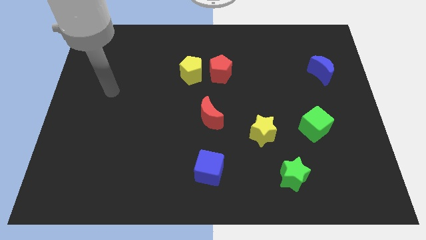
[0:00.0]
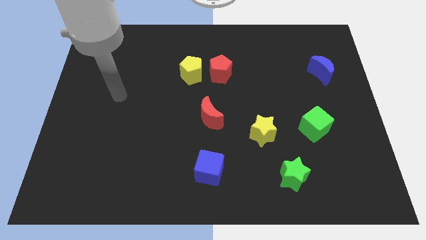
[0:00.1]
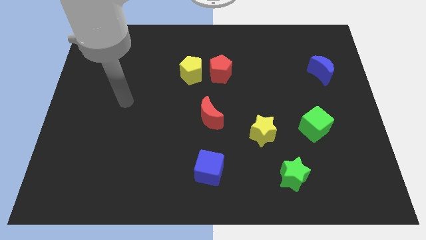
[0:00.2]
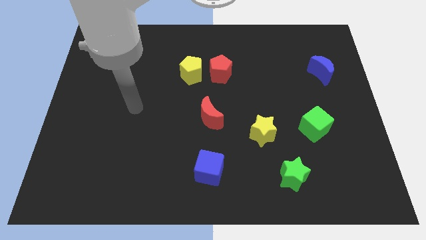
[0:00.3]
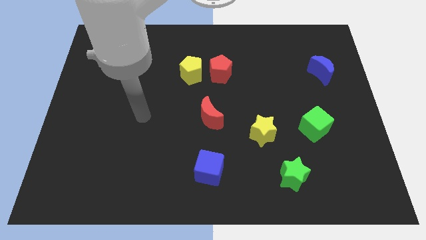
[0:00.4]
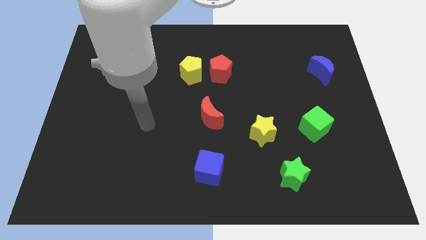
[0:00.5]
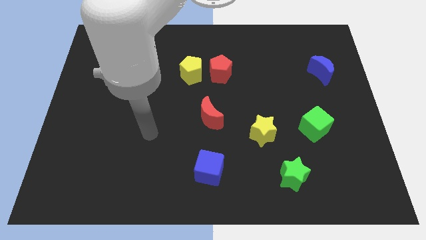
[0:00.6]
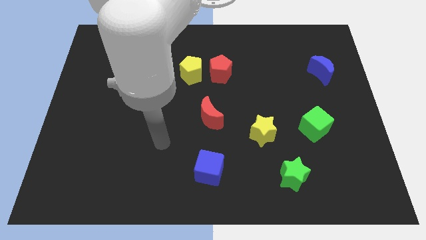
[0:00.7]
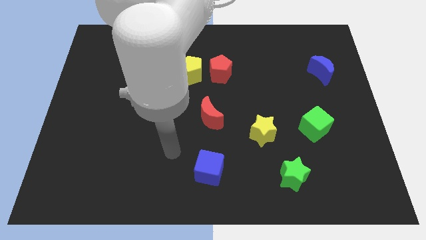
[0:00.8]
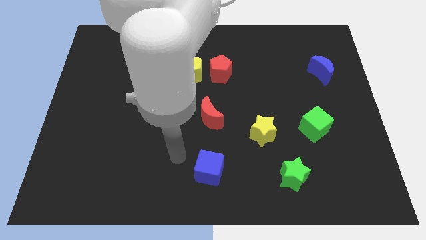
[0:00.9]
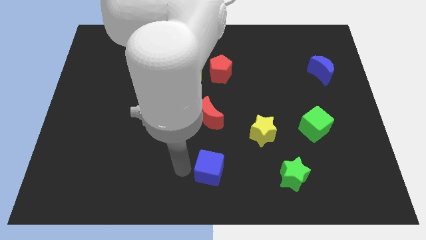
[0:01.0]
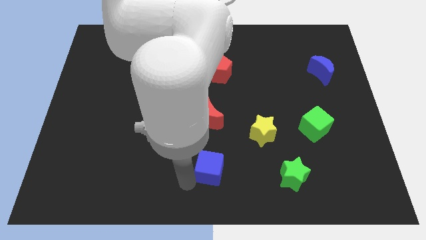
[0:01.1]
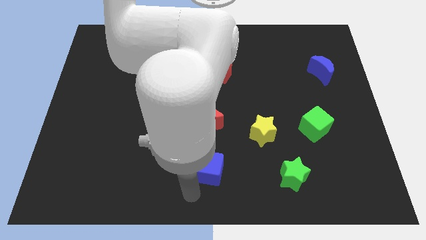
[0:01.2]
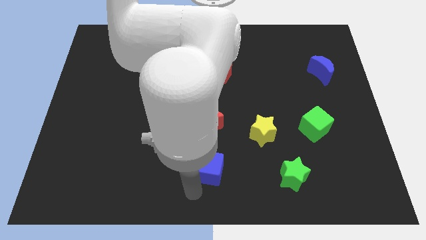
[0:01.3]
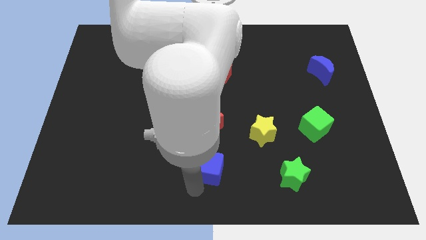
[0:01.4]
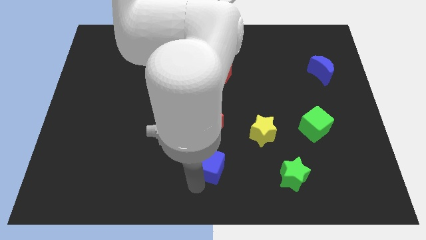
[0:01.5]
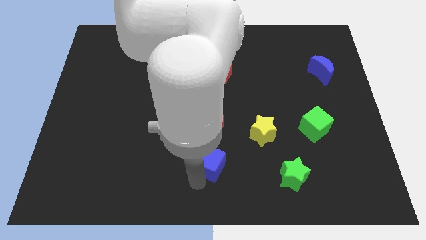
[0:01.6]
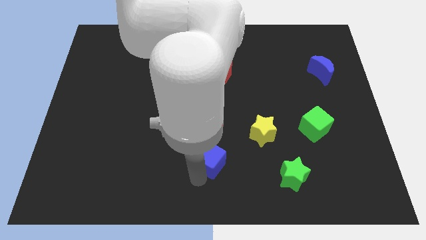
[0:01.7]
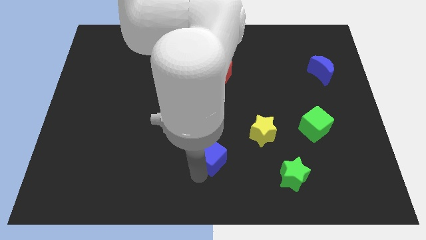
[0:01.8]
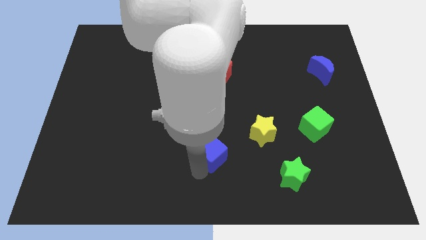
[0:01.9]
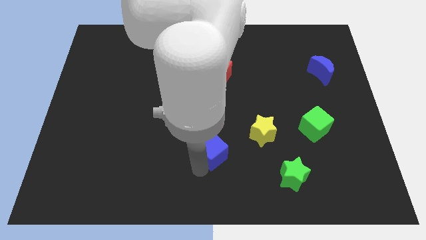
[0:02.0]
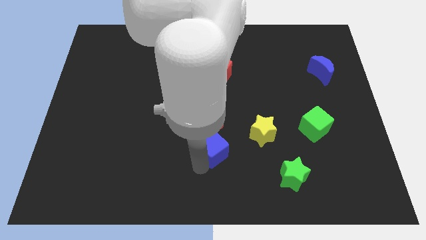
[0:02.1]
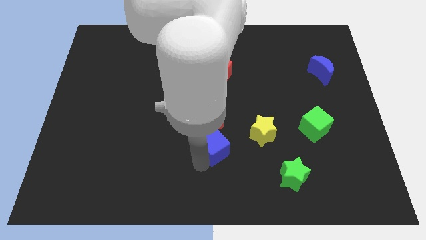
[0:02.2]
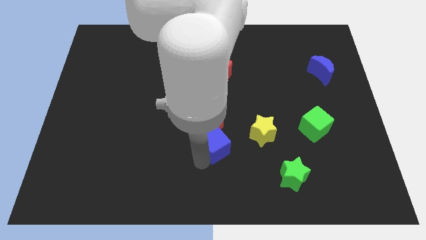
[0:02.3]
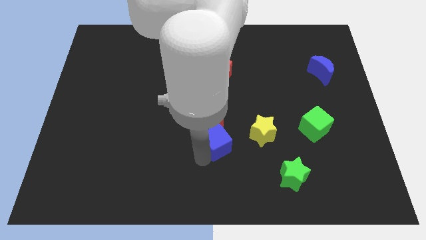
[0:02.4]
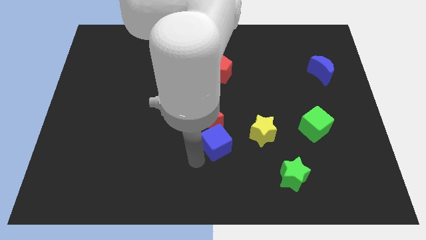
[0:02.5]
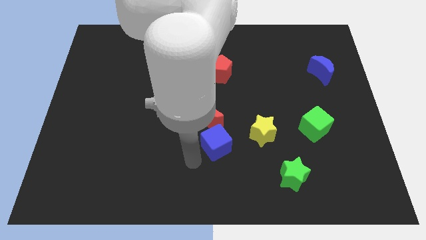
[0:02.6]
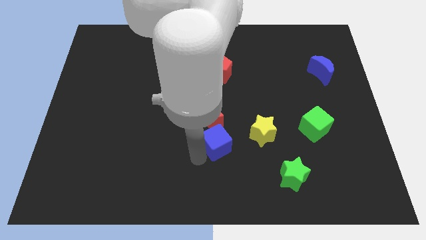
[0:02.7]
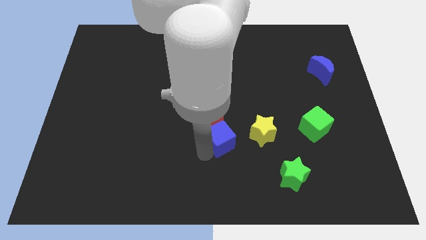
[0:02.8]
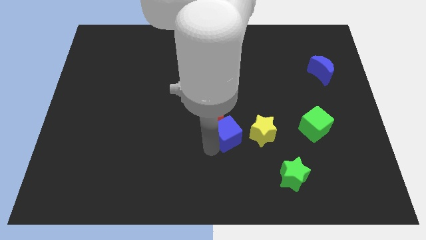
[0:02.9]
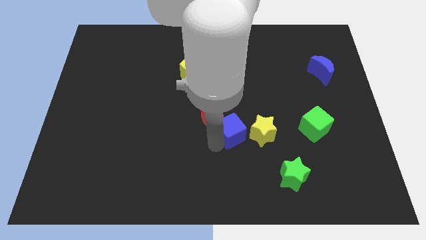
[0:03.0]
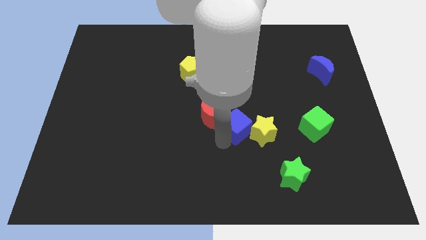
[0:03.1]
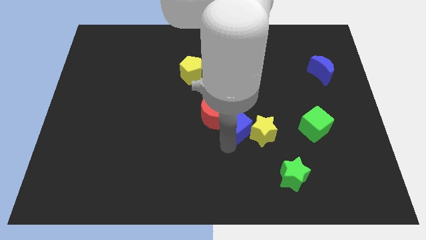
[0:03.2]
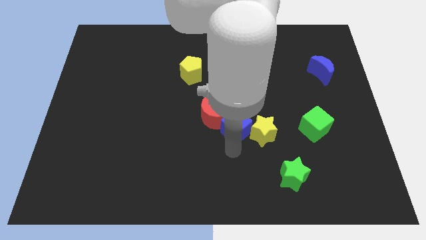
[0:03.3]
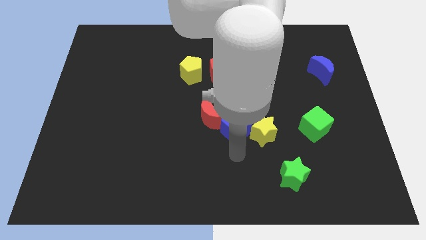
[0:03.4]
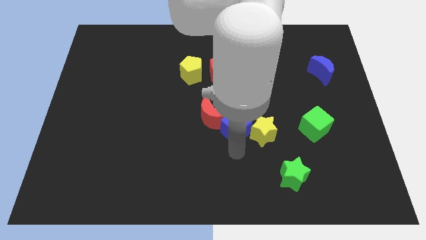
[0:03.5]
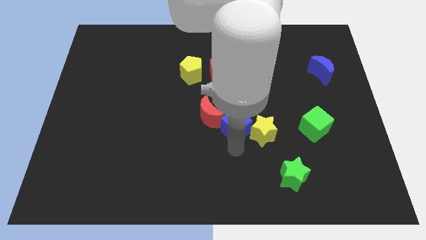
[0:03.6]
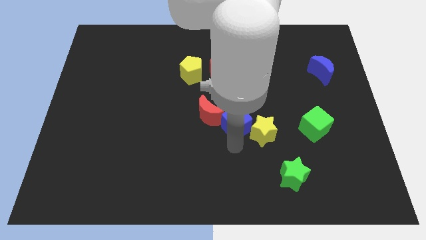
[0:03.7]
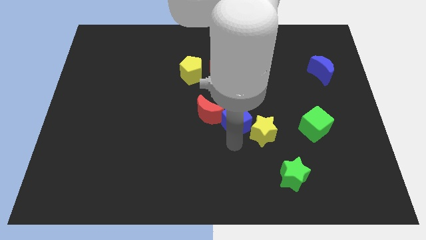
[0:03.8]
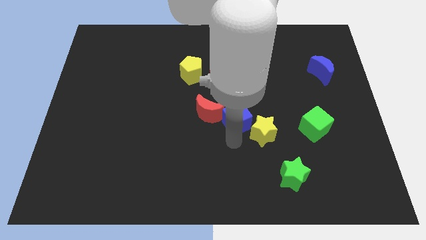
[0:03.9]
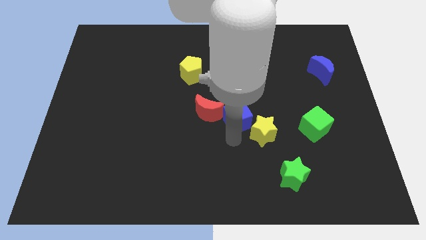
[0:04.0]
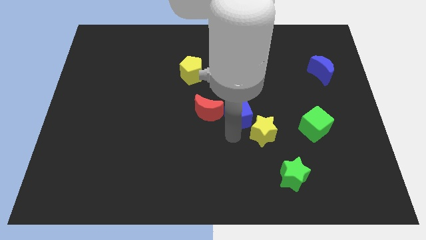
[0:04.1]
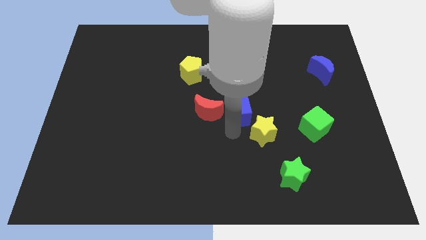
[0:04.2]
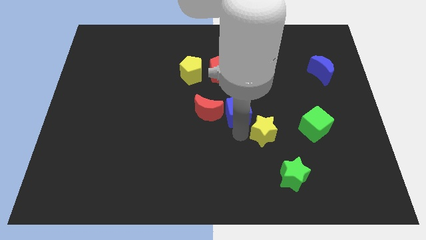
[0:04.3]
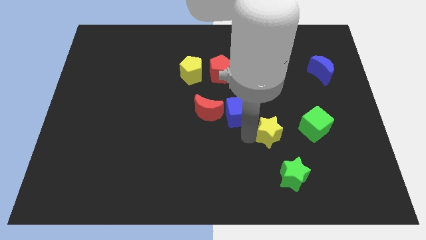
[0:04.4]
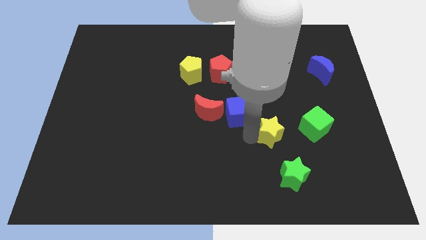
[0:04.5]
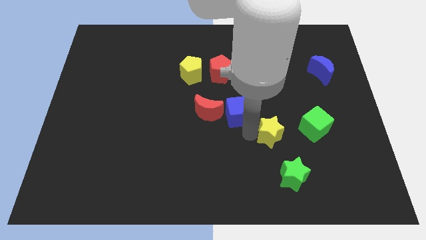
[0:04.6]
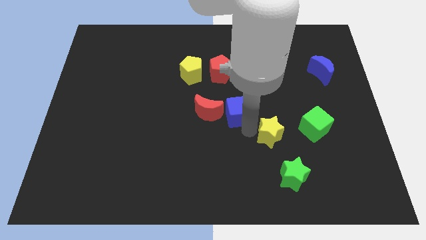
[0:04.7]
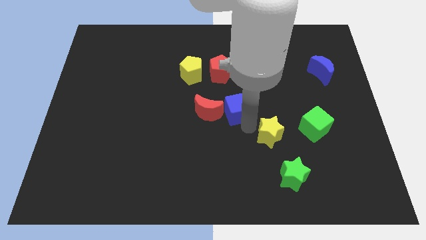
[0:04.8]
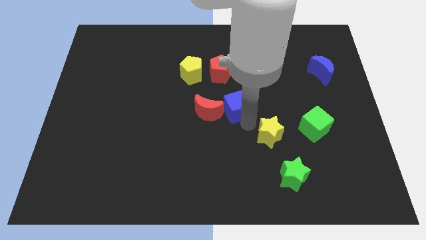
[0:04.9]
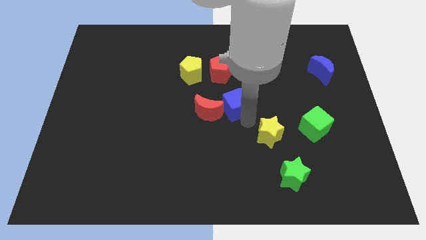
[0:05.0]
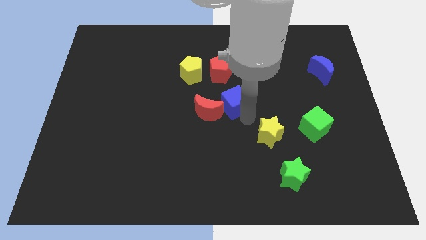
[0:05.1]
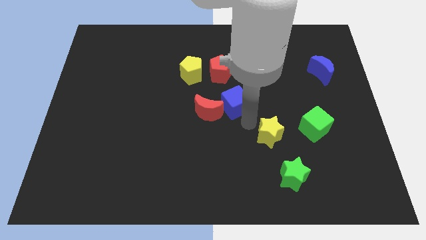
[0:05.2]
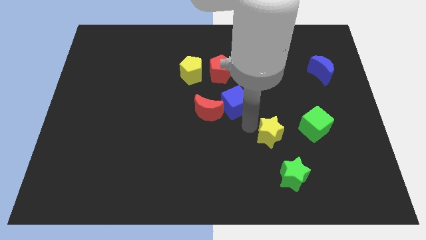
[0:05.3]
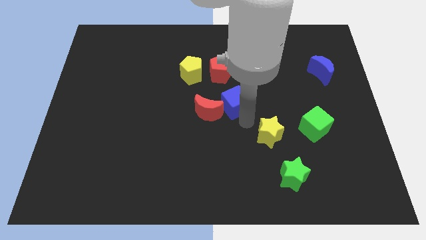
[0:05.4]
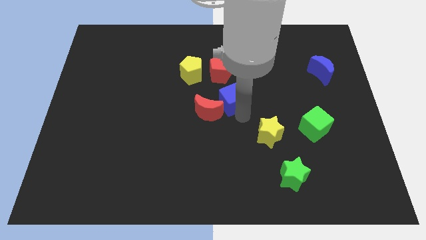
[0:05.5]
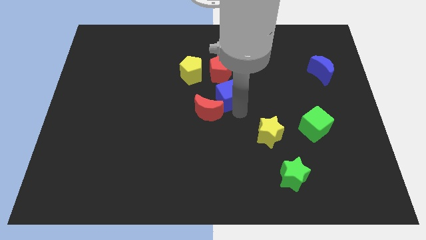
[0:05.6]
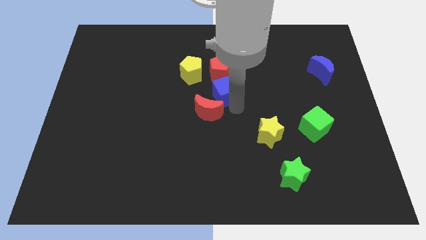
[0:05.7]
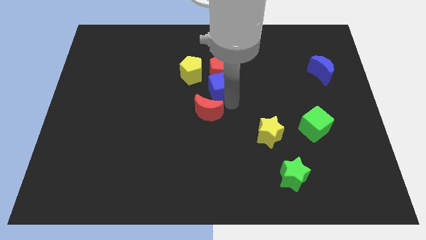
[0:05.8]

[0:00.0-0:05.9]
put the blue cube towards the red pentagon
